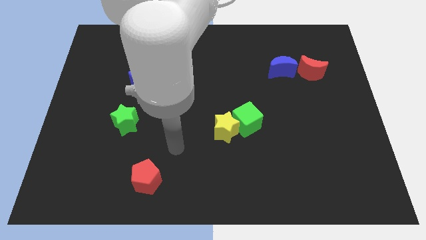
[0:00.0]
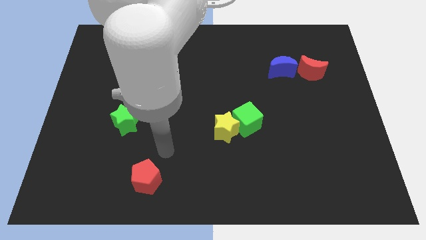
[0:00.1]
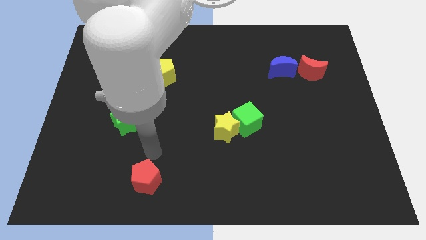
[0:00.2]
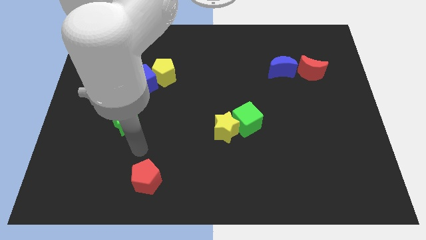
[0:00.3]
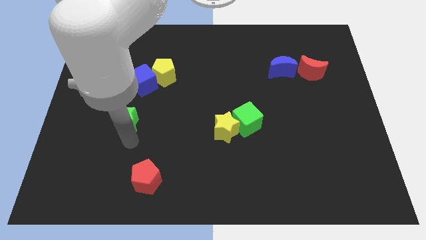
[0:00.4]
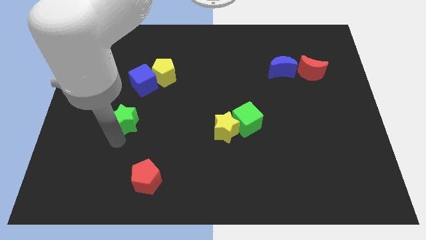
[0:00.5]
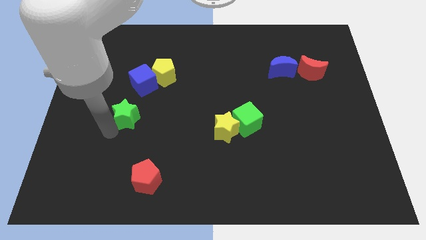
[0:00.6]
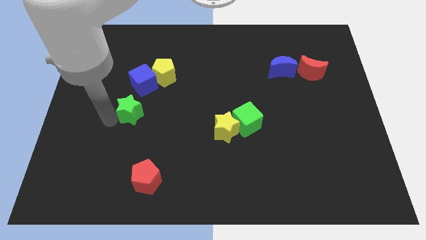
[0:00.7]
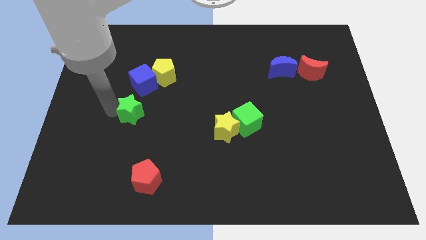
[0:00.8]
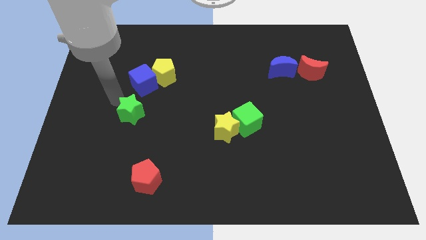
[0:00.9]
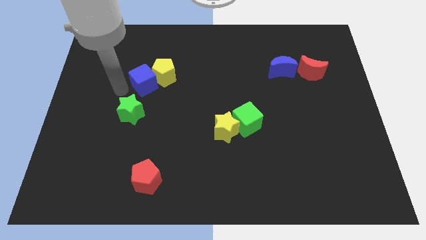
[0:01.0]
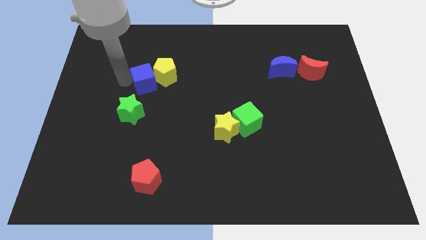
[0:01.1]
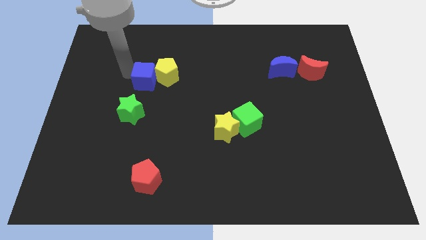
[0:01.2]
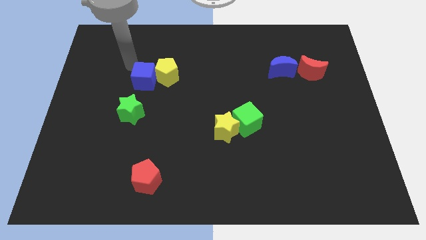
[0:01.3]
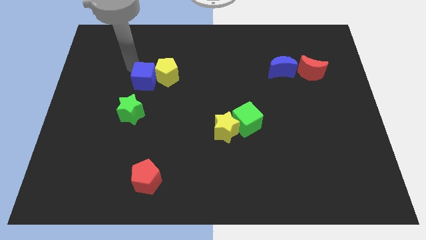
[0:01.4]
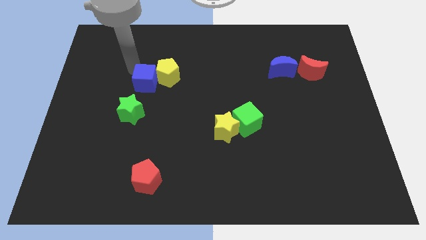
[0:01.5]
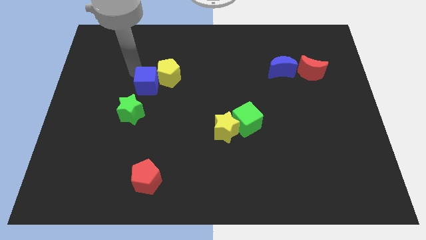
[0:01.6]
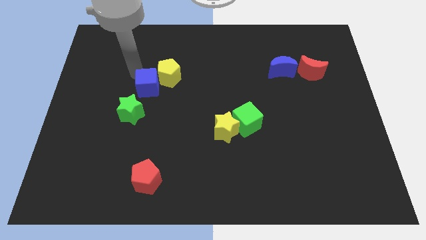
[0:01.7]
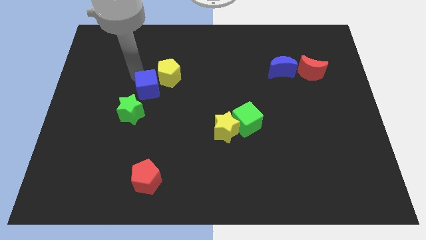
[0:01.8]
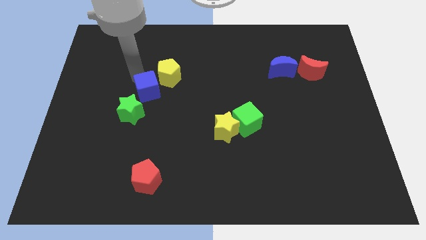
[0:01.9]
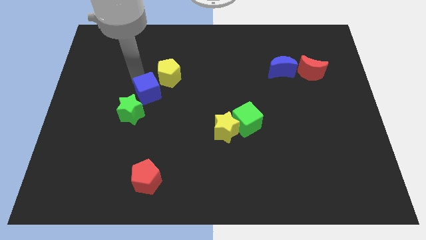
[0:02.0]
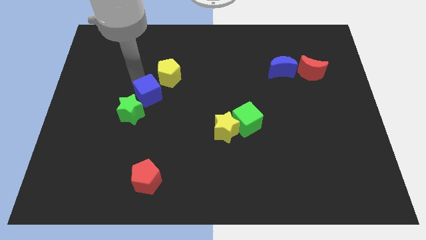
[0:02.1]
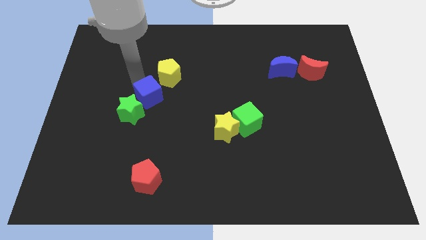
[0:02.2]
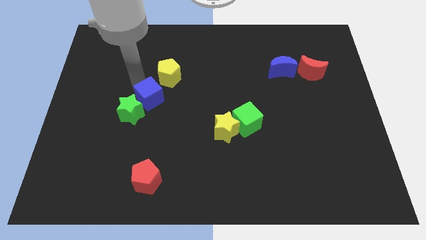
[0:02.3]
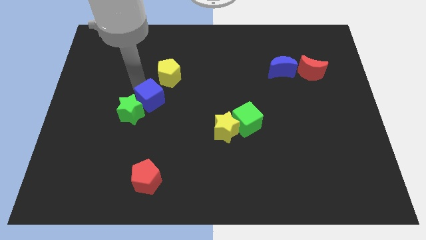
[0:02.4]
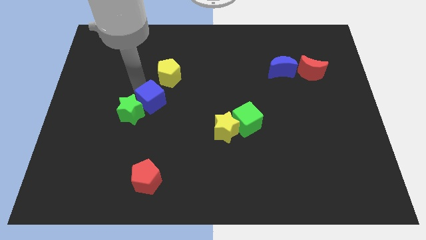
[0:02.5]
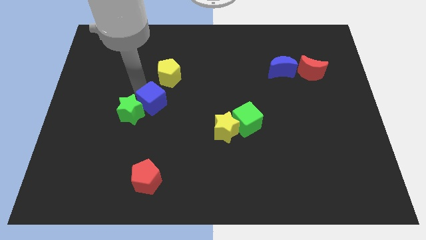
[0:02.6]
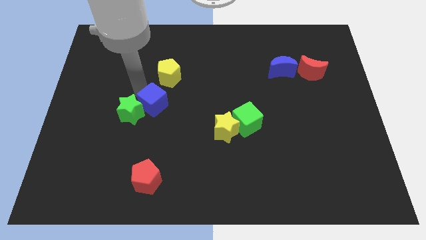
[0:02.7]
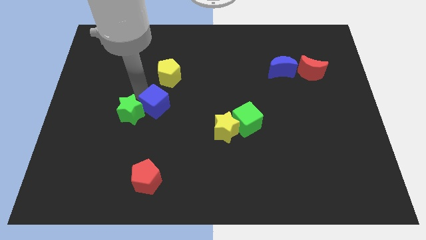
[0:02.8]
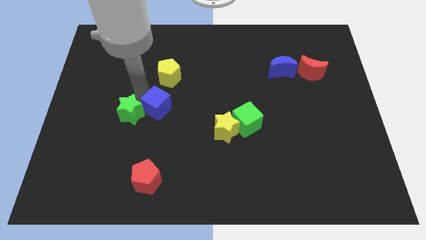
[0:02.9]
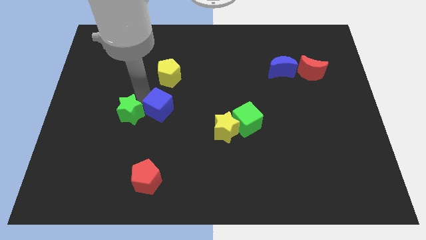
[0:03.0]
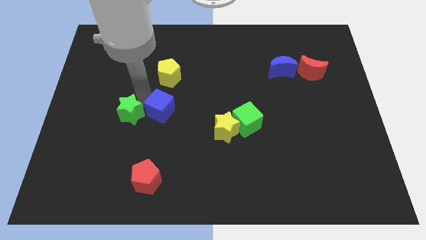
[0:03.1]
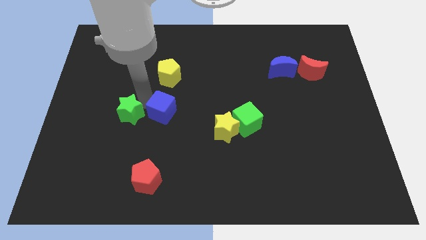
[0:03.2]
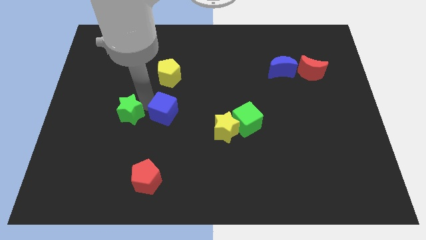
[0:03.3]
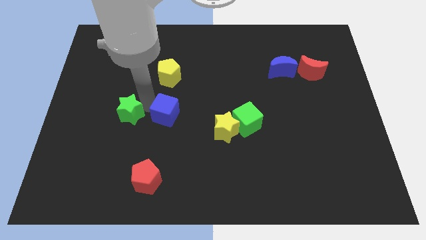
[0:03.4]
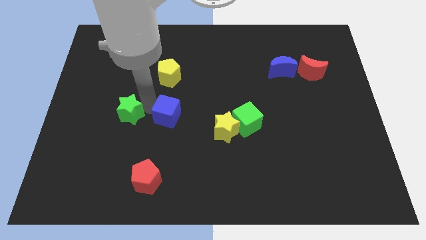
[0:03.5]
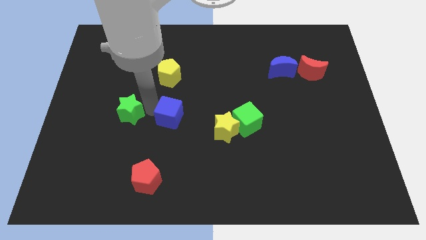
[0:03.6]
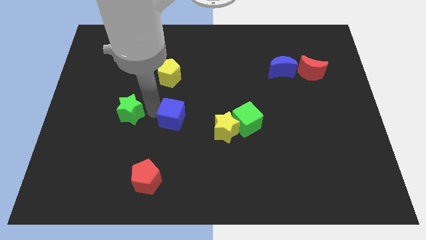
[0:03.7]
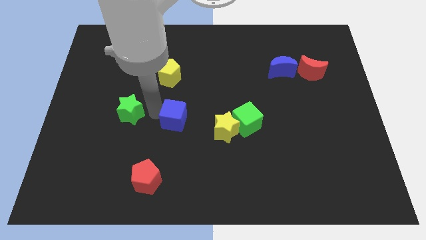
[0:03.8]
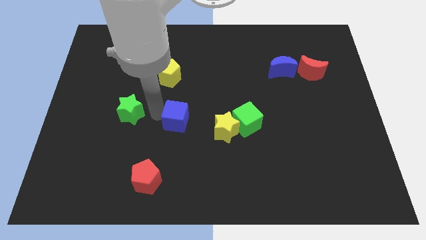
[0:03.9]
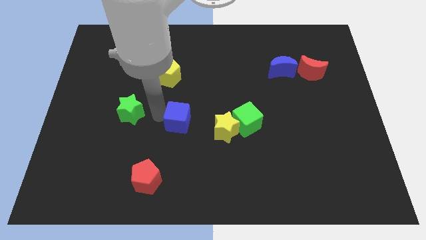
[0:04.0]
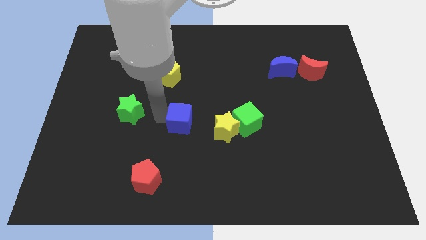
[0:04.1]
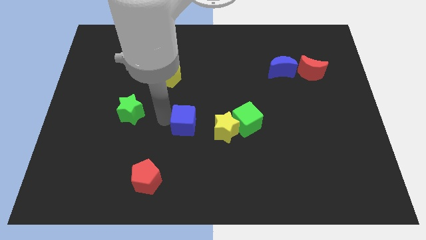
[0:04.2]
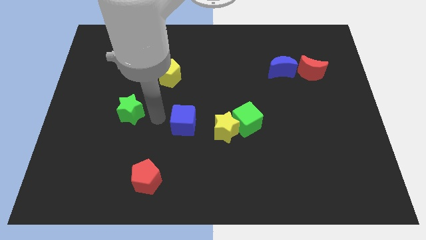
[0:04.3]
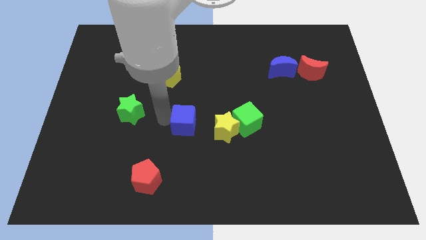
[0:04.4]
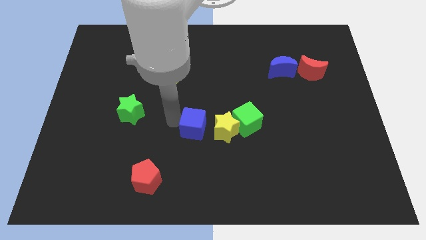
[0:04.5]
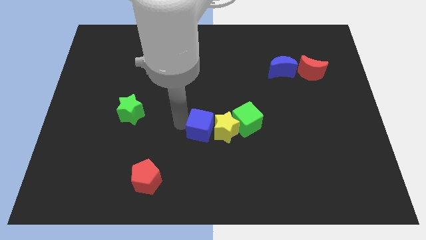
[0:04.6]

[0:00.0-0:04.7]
push the blue cube close to the yellow star

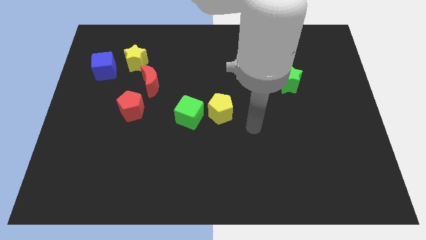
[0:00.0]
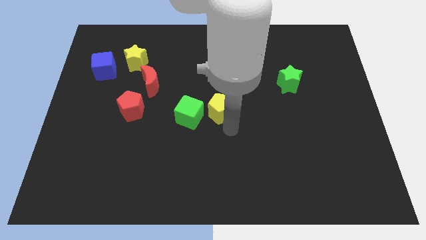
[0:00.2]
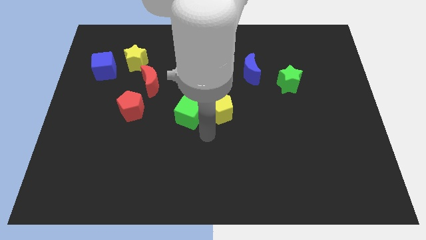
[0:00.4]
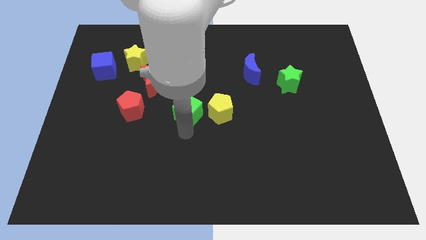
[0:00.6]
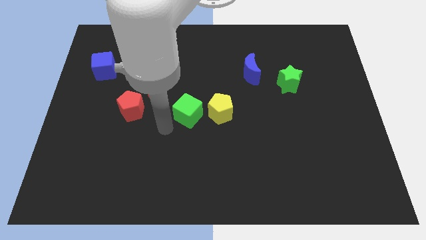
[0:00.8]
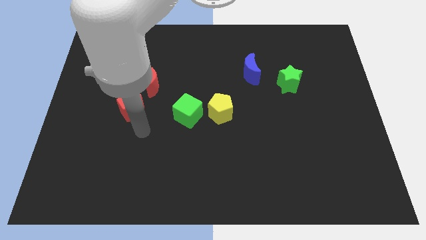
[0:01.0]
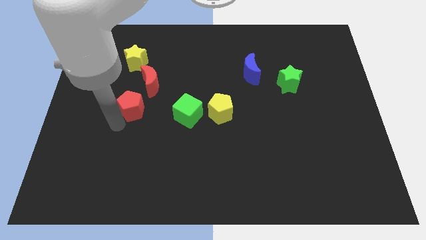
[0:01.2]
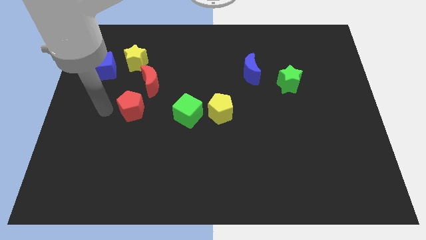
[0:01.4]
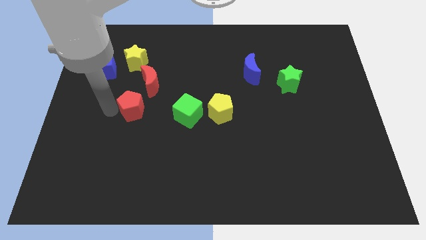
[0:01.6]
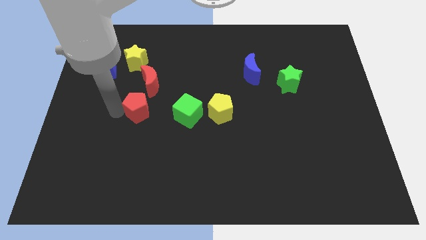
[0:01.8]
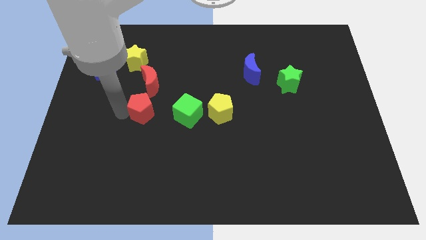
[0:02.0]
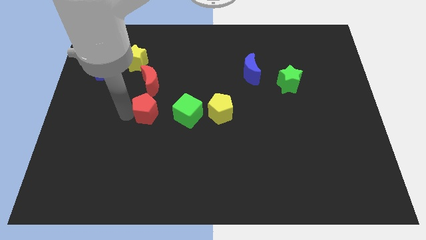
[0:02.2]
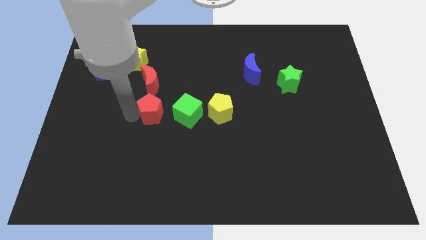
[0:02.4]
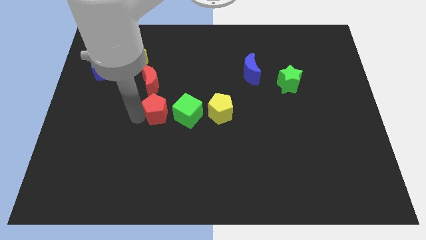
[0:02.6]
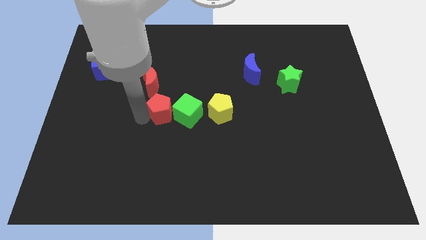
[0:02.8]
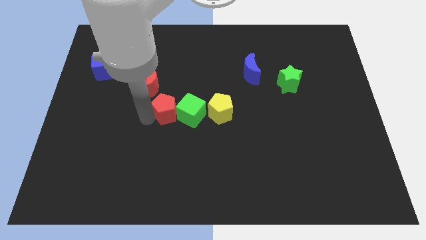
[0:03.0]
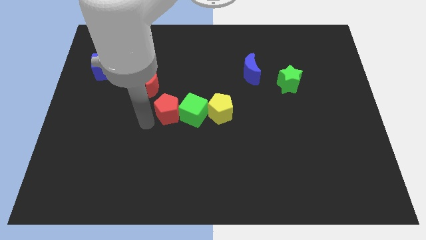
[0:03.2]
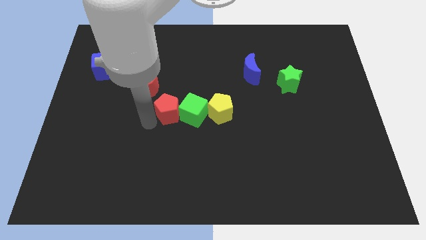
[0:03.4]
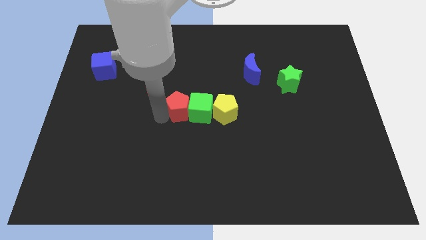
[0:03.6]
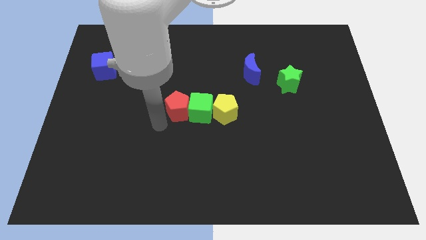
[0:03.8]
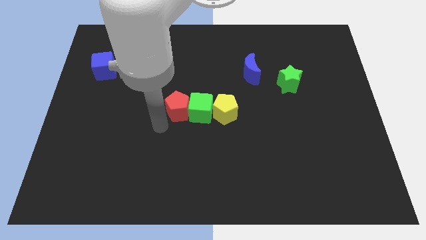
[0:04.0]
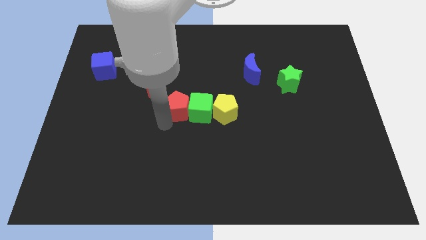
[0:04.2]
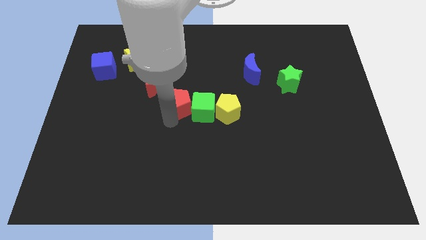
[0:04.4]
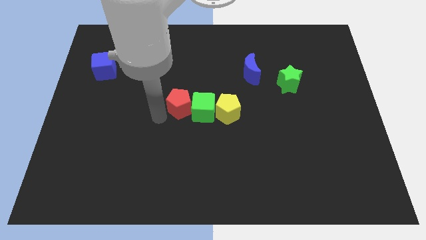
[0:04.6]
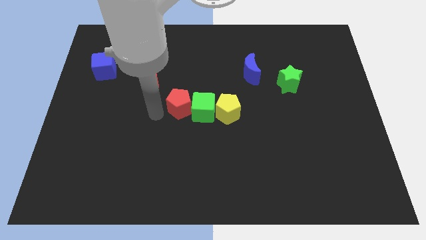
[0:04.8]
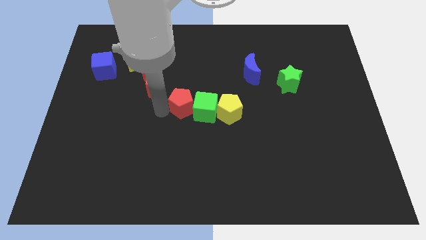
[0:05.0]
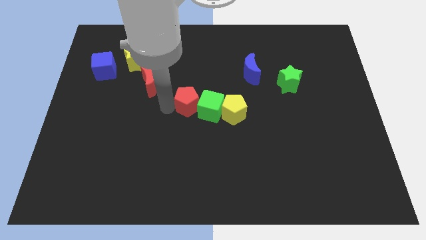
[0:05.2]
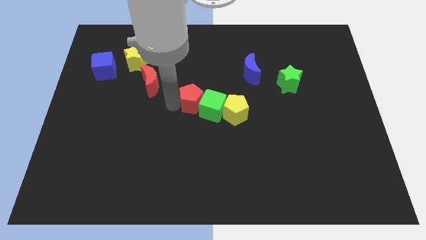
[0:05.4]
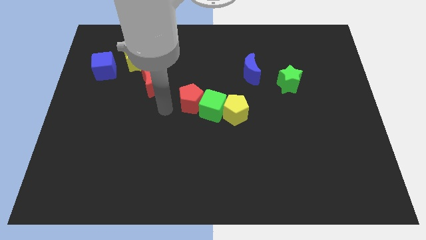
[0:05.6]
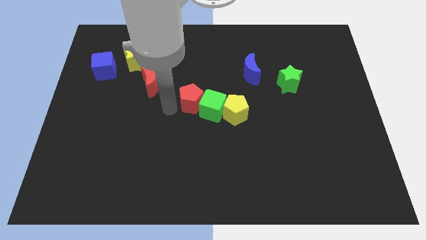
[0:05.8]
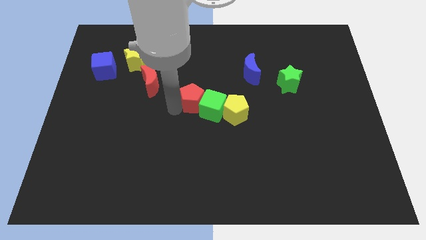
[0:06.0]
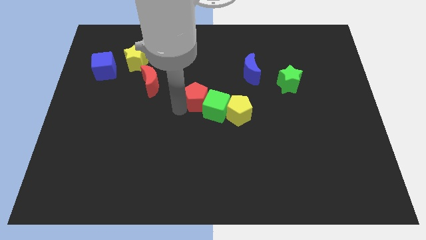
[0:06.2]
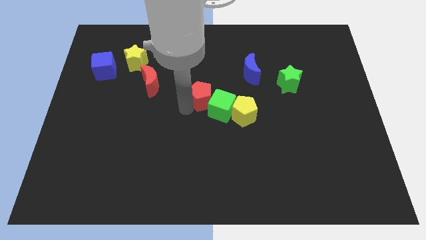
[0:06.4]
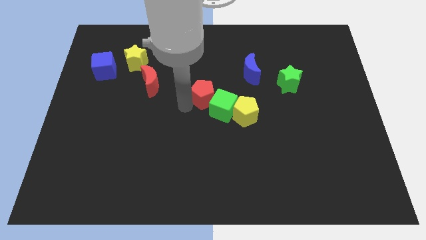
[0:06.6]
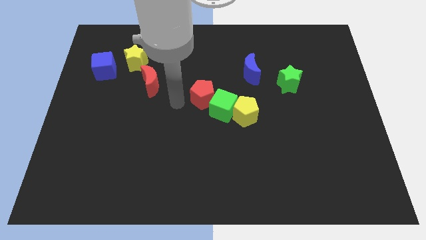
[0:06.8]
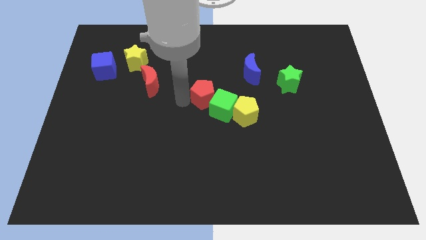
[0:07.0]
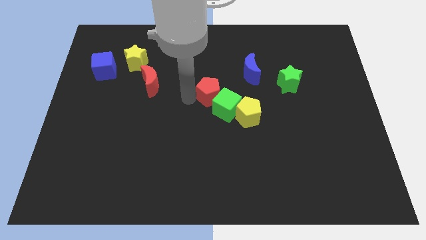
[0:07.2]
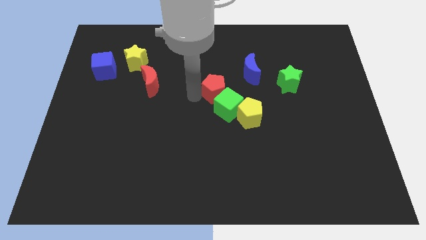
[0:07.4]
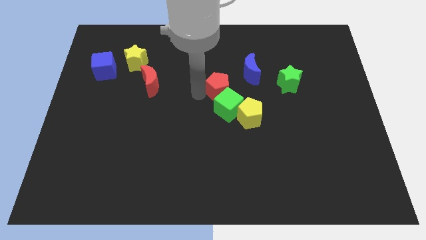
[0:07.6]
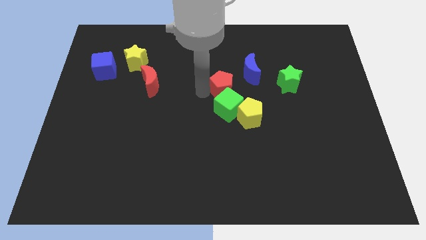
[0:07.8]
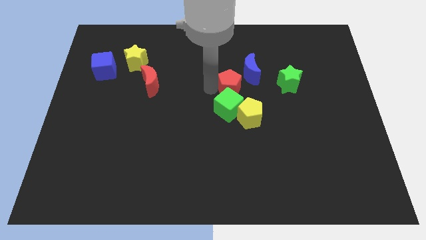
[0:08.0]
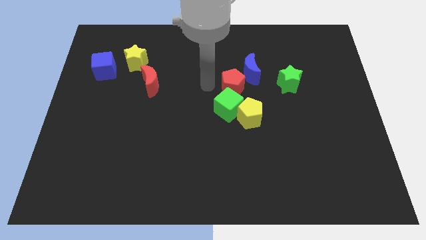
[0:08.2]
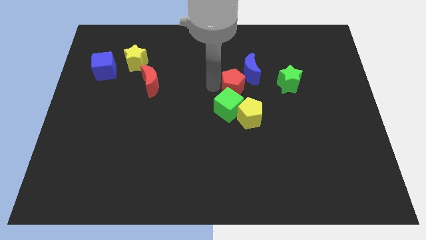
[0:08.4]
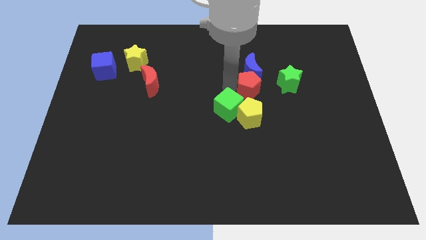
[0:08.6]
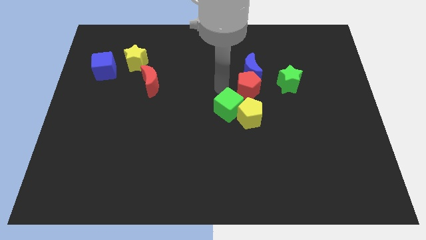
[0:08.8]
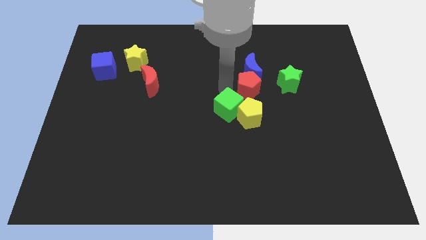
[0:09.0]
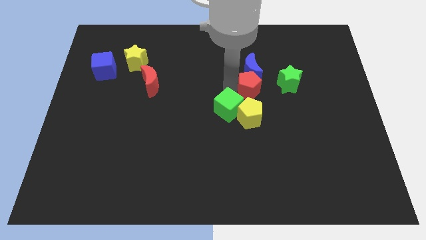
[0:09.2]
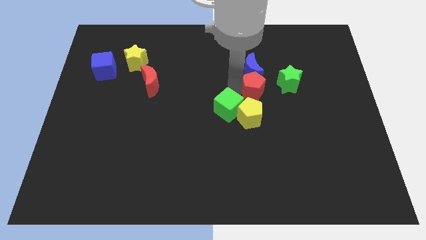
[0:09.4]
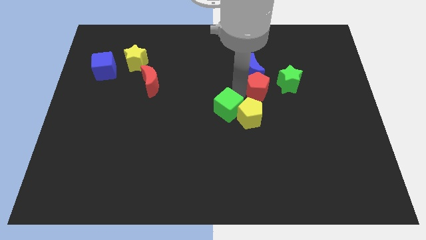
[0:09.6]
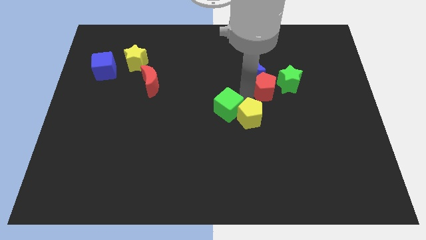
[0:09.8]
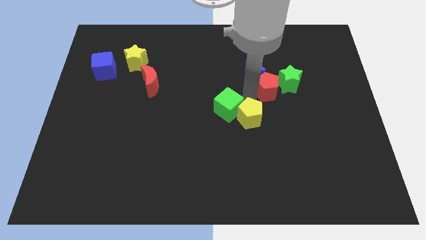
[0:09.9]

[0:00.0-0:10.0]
move the red pentagon next to the green star
